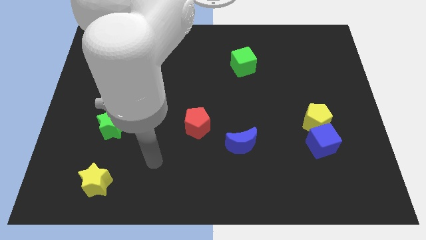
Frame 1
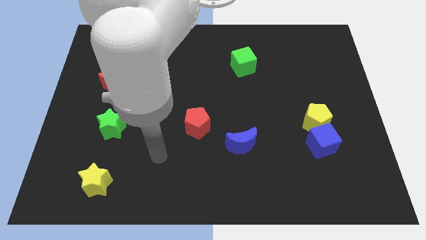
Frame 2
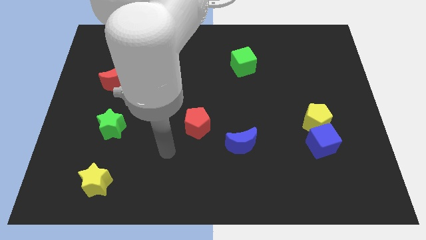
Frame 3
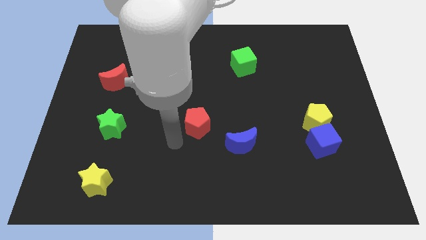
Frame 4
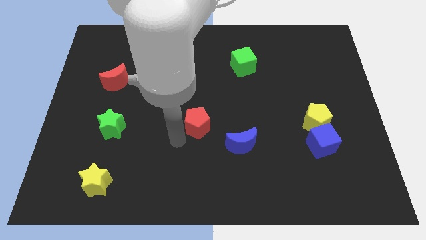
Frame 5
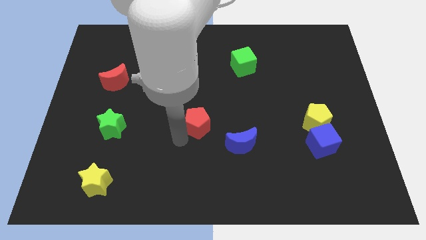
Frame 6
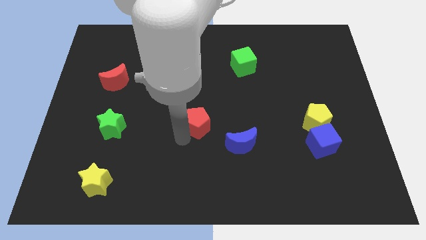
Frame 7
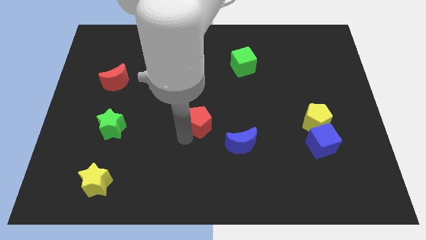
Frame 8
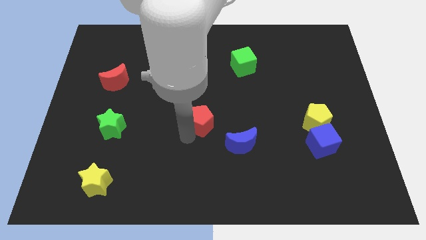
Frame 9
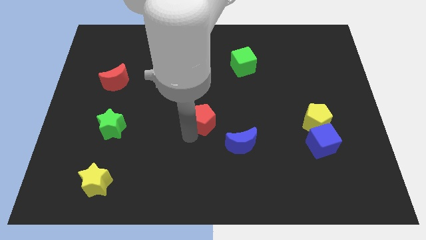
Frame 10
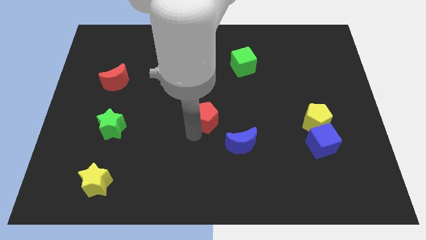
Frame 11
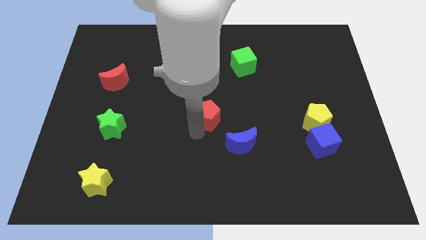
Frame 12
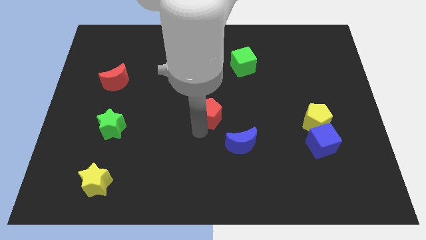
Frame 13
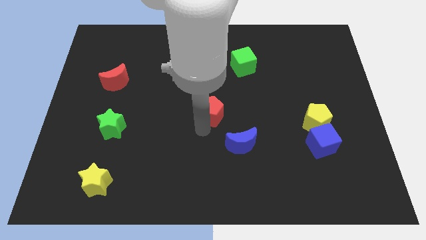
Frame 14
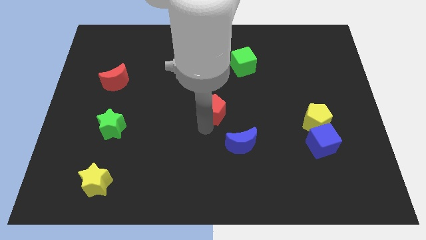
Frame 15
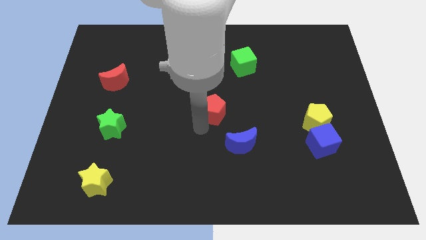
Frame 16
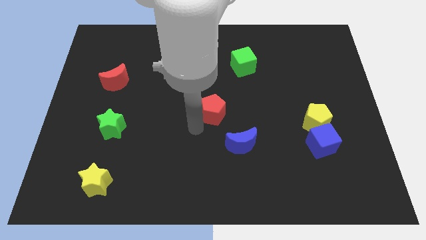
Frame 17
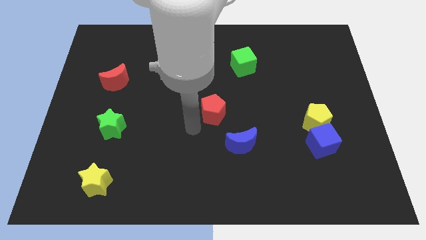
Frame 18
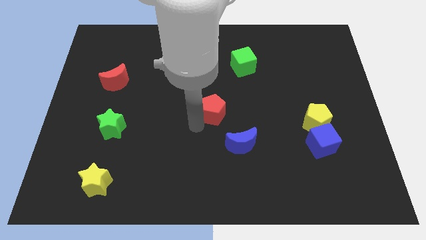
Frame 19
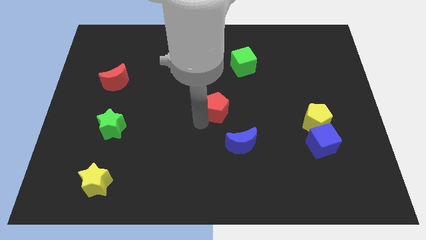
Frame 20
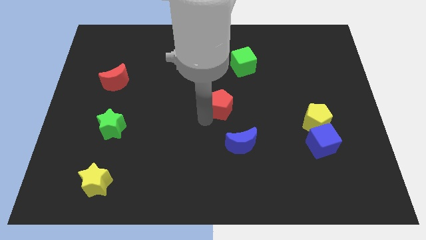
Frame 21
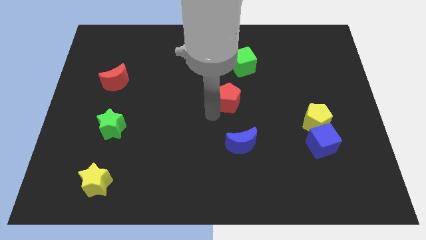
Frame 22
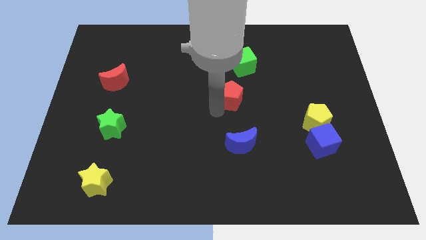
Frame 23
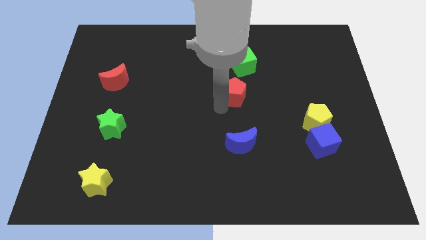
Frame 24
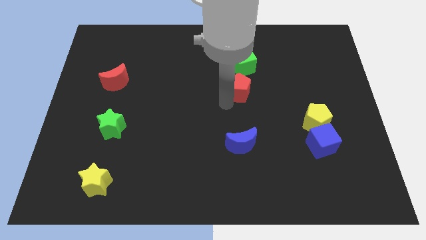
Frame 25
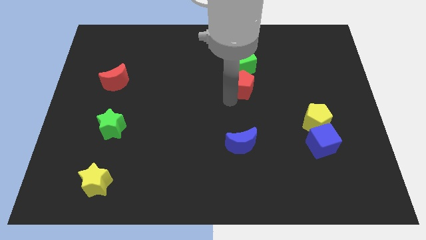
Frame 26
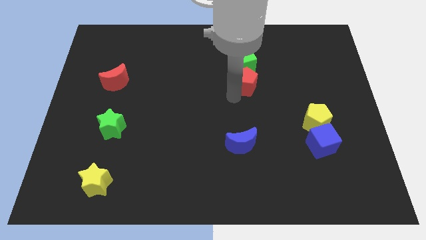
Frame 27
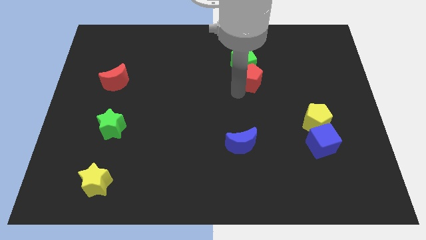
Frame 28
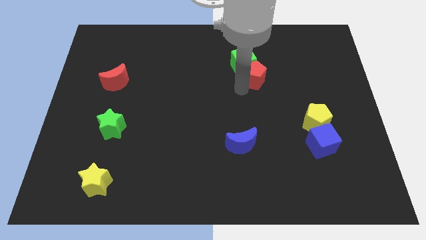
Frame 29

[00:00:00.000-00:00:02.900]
move the red pentagon diagonally upwards and to the right

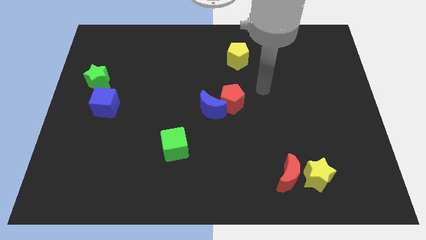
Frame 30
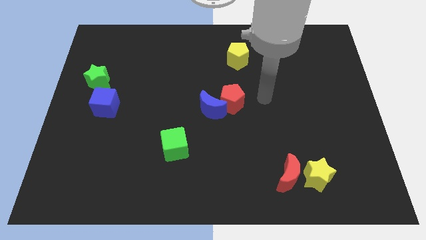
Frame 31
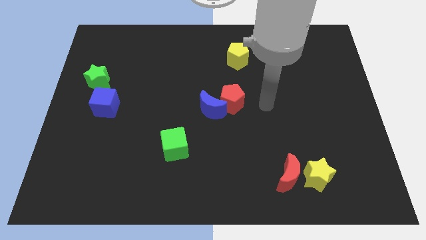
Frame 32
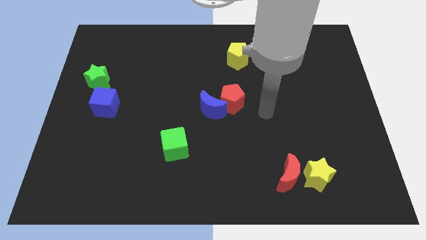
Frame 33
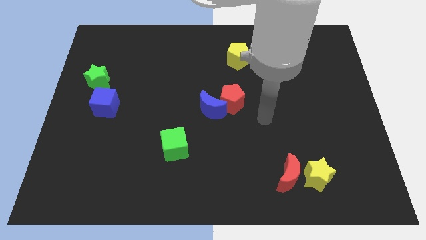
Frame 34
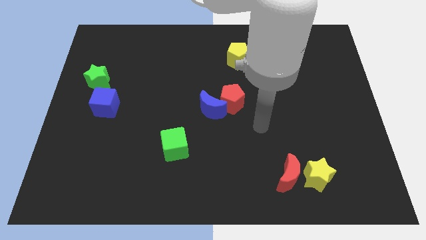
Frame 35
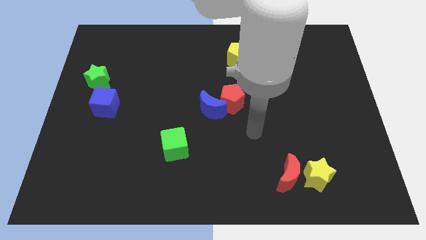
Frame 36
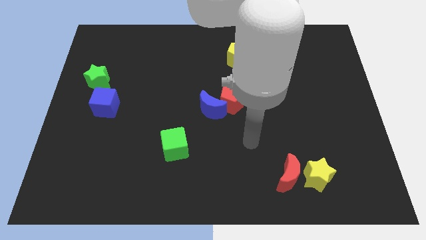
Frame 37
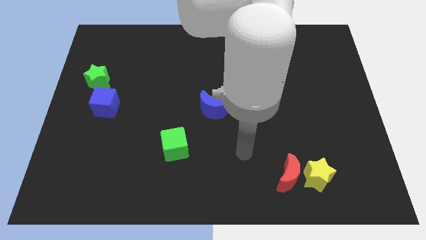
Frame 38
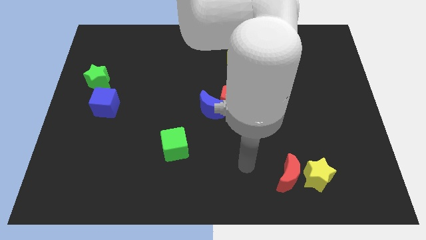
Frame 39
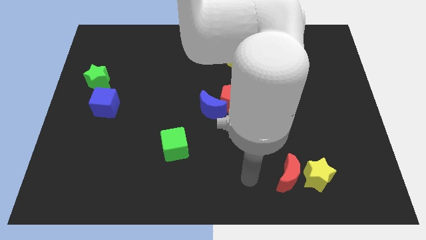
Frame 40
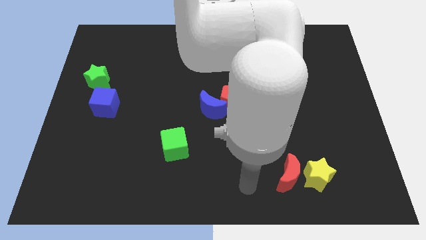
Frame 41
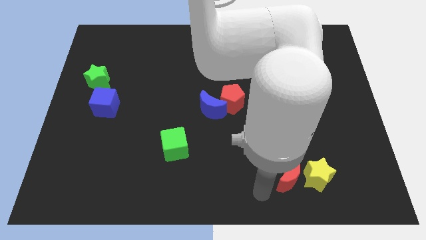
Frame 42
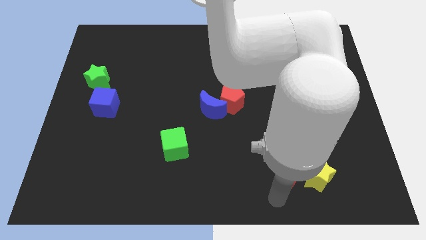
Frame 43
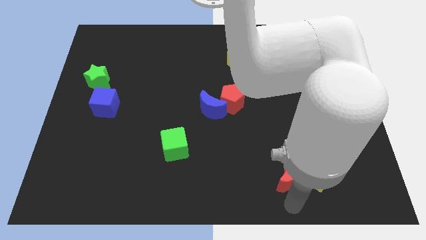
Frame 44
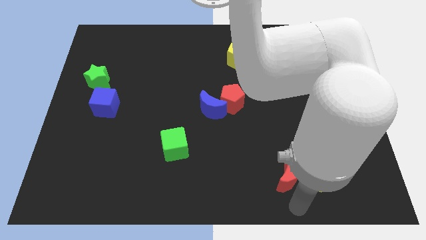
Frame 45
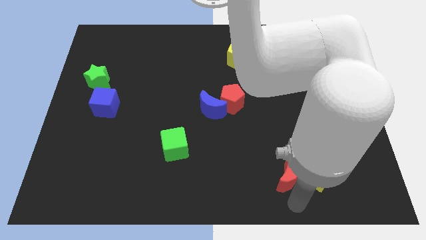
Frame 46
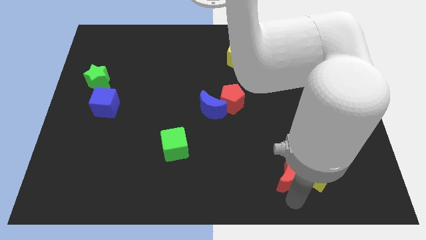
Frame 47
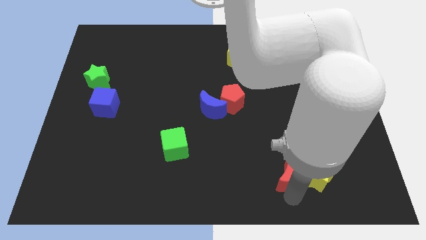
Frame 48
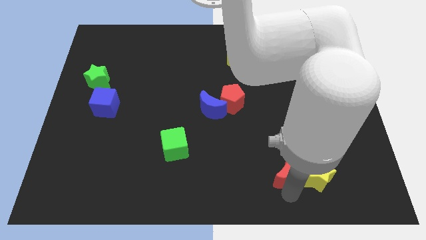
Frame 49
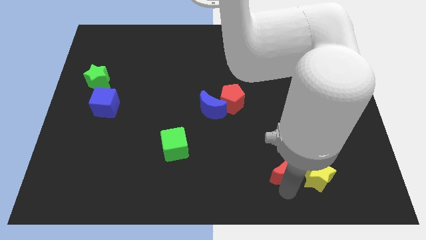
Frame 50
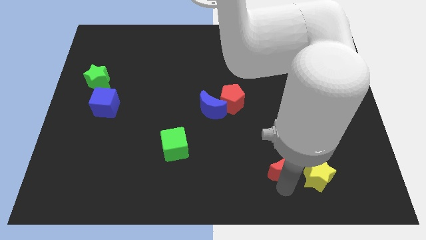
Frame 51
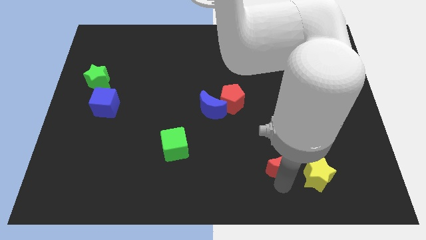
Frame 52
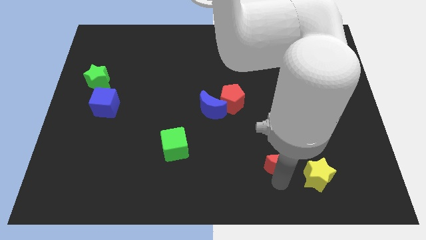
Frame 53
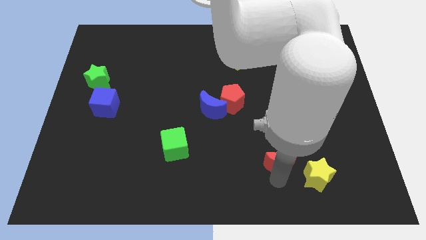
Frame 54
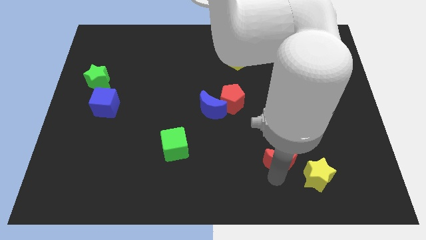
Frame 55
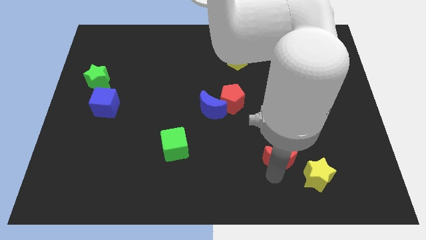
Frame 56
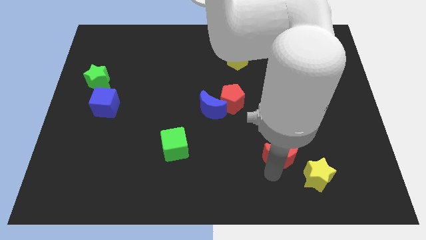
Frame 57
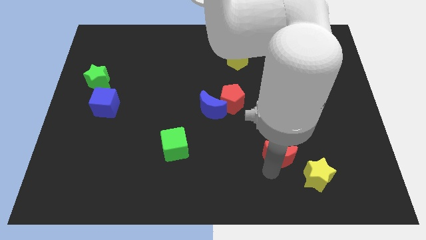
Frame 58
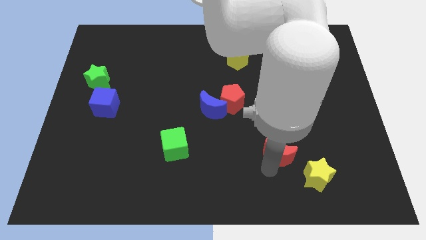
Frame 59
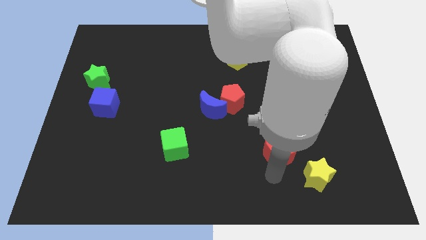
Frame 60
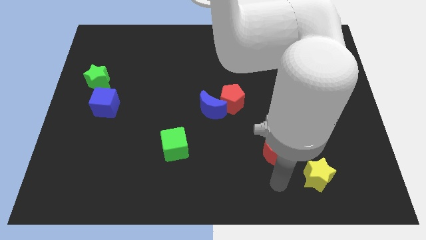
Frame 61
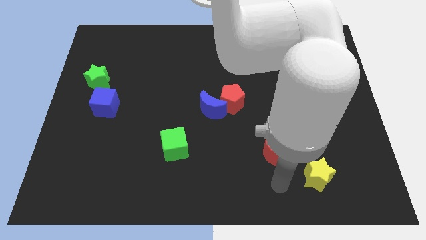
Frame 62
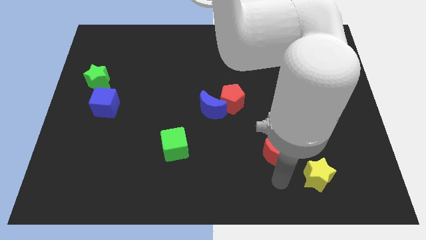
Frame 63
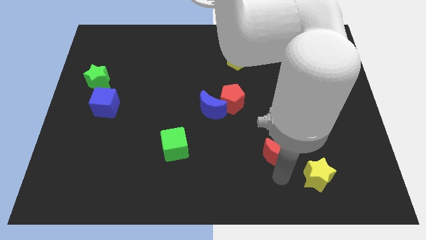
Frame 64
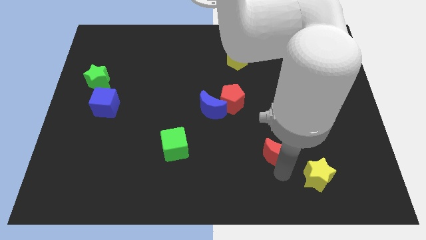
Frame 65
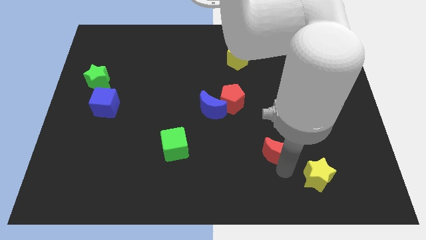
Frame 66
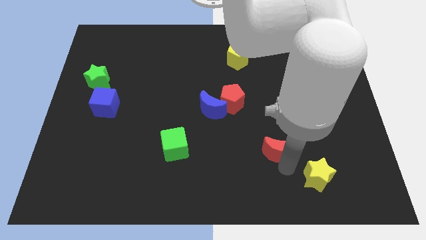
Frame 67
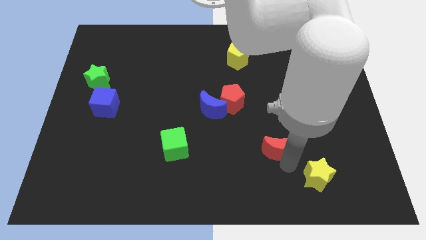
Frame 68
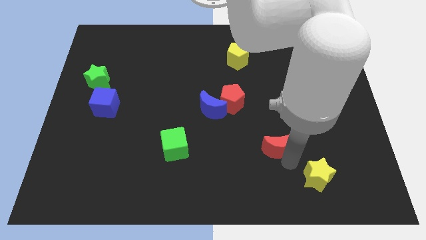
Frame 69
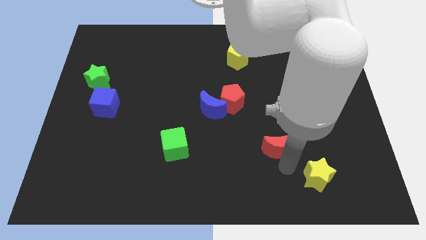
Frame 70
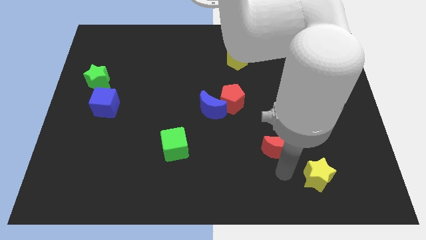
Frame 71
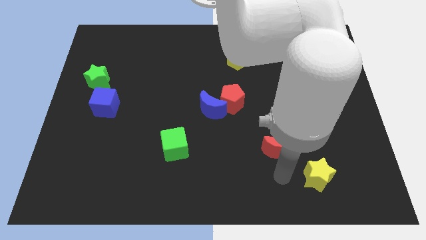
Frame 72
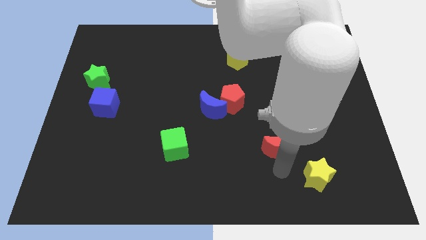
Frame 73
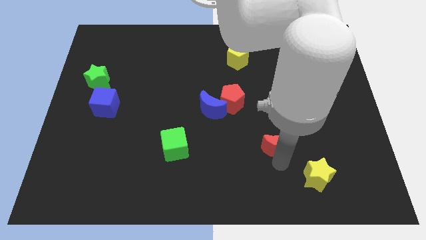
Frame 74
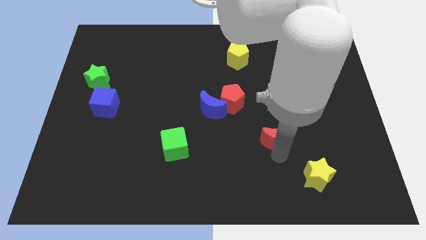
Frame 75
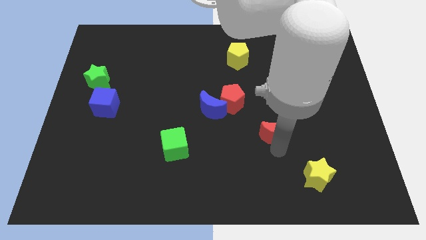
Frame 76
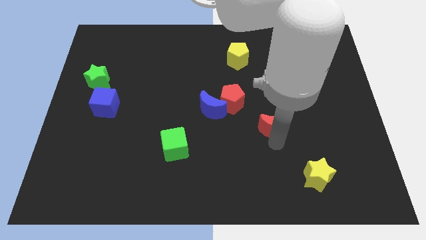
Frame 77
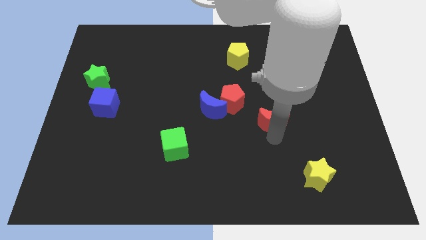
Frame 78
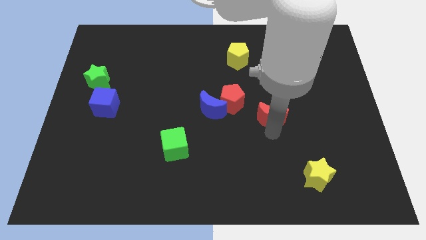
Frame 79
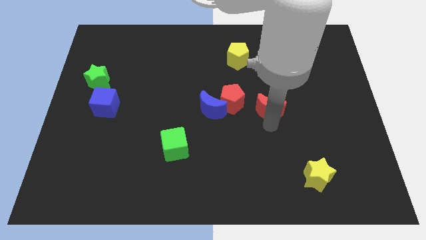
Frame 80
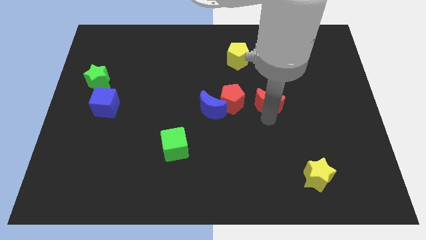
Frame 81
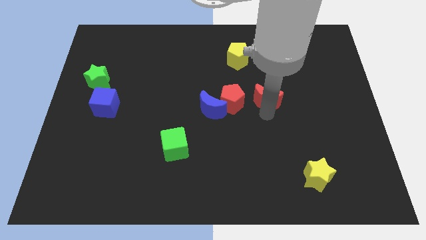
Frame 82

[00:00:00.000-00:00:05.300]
slide the red moon upwards
